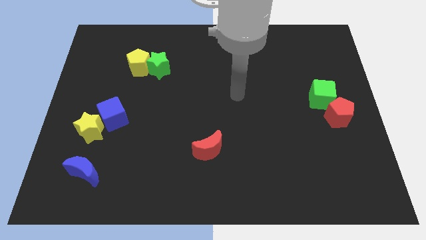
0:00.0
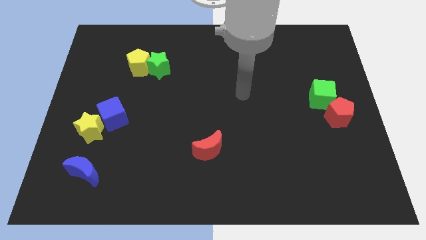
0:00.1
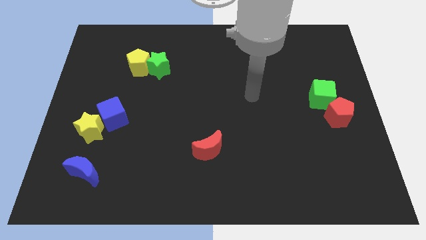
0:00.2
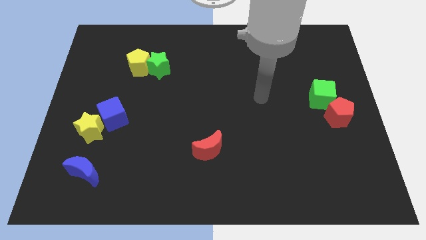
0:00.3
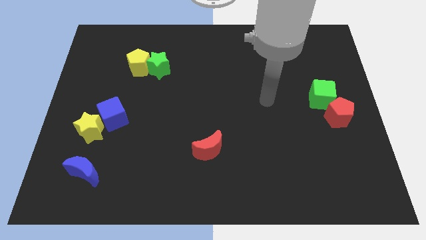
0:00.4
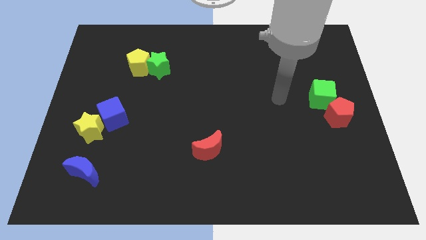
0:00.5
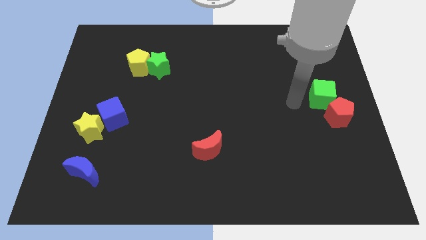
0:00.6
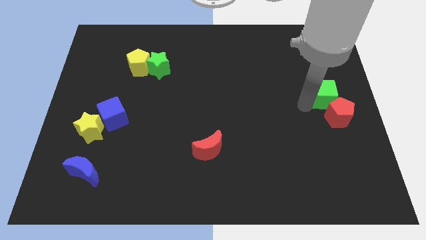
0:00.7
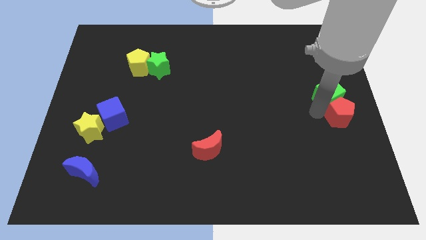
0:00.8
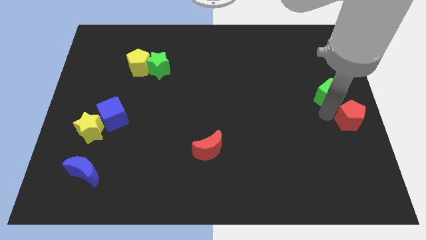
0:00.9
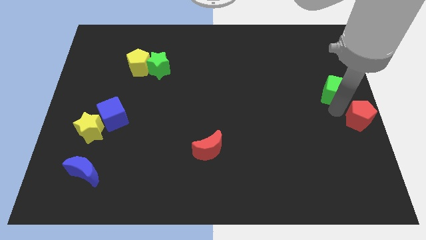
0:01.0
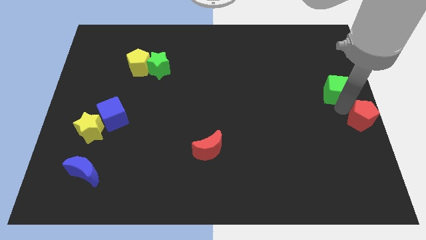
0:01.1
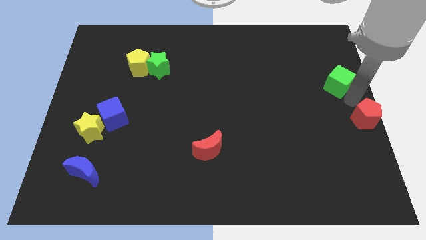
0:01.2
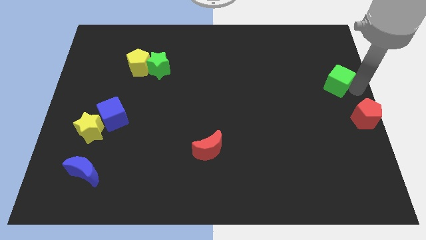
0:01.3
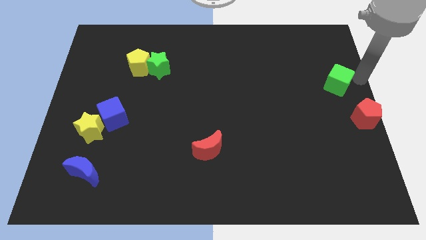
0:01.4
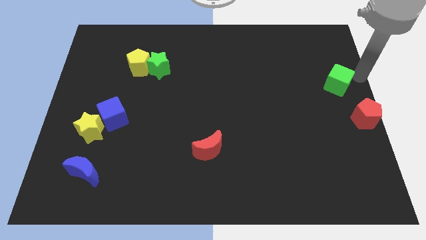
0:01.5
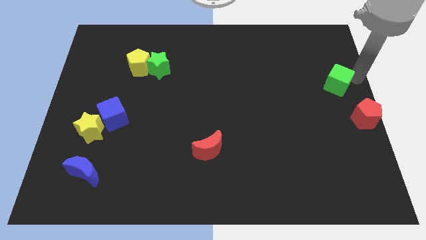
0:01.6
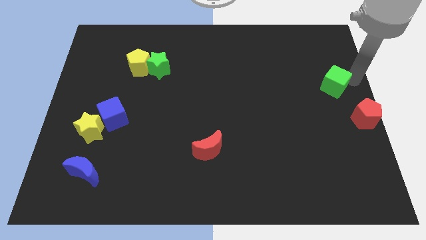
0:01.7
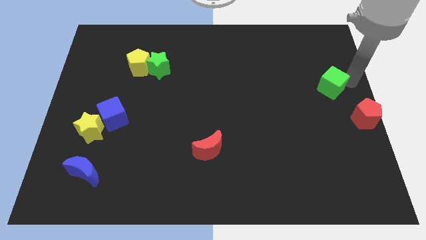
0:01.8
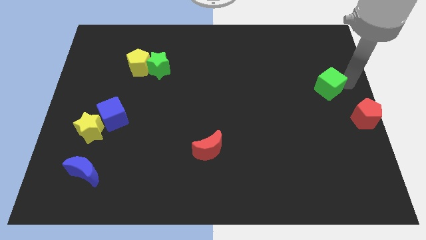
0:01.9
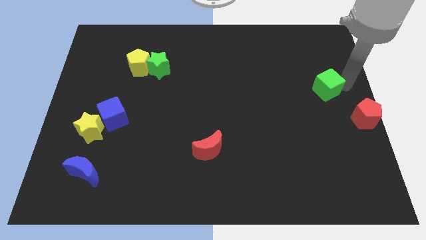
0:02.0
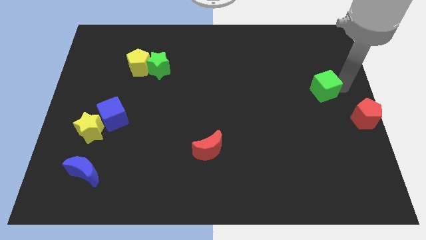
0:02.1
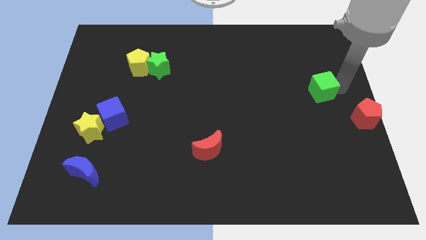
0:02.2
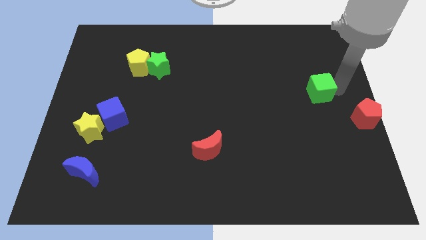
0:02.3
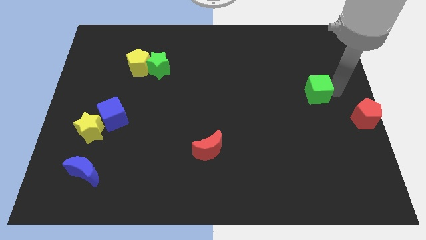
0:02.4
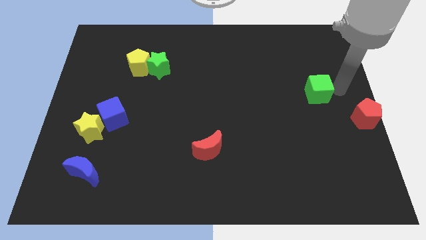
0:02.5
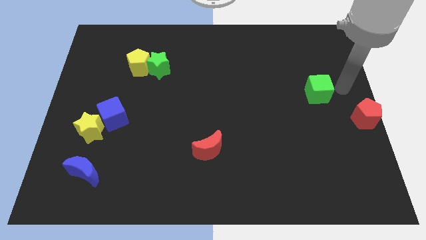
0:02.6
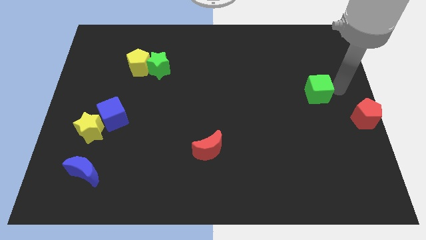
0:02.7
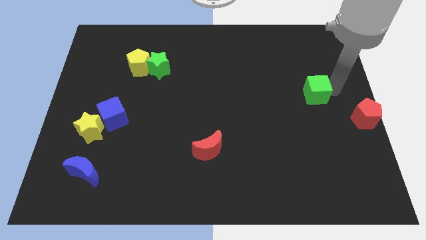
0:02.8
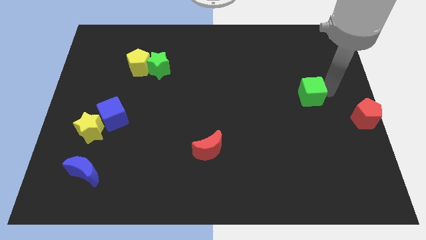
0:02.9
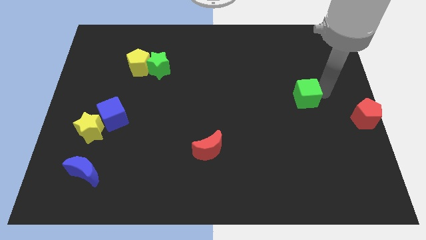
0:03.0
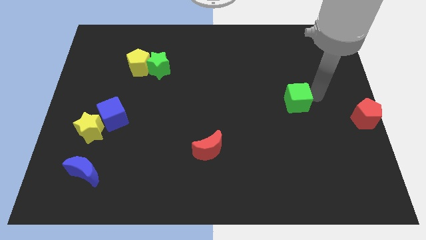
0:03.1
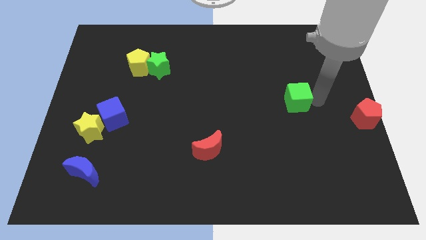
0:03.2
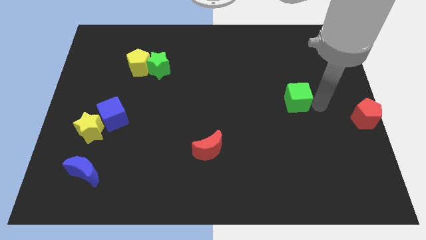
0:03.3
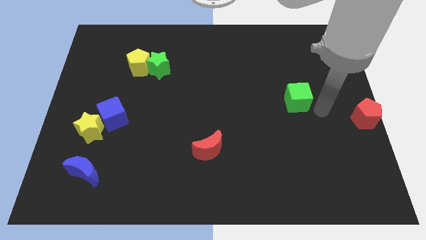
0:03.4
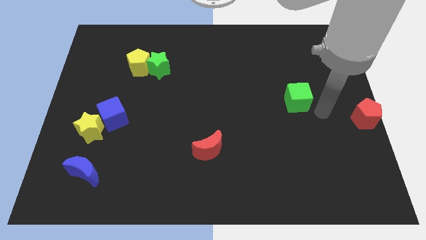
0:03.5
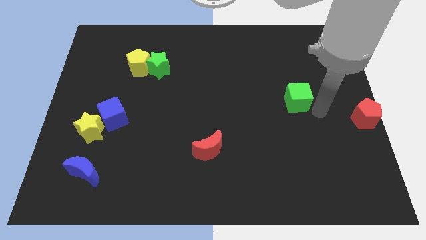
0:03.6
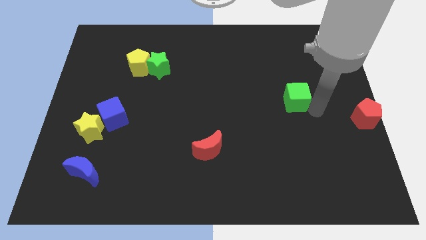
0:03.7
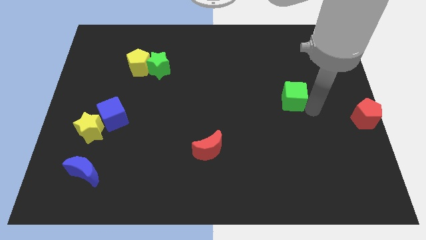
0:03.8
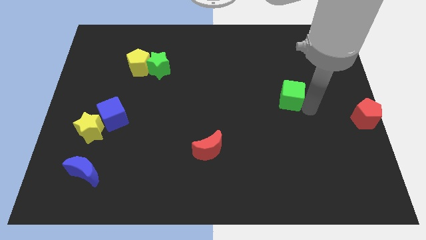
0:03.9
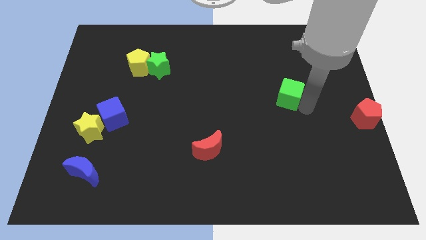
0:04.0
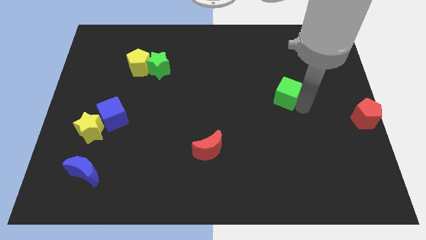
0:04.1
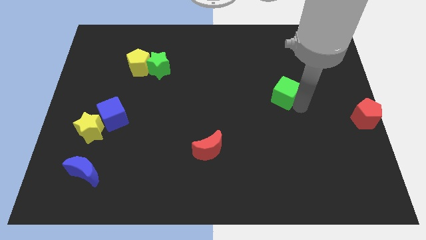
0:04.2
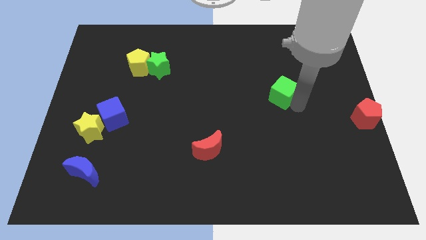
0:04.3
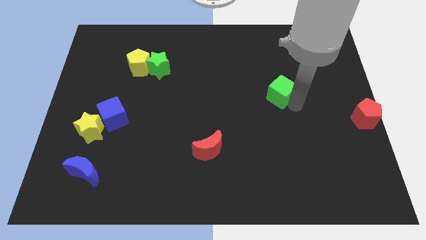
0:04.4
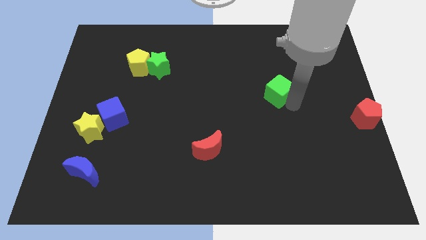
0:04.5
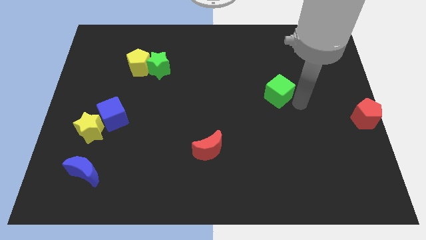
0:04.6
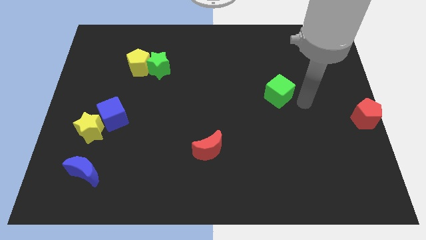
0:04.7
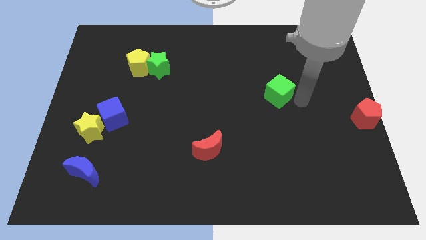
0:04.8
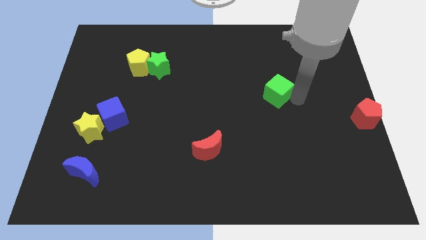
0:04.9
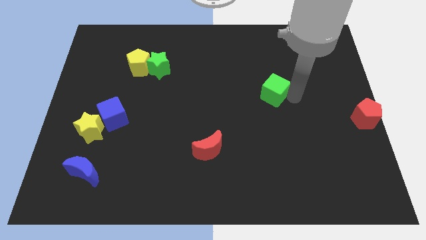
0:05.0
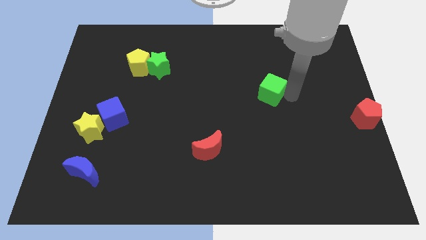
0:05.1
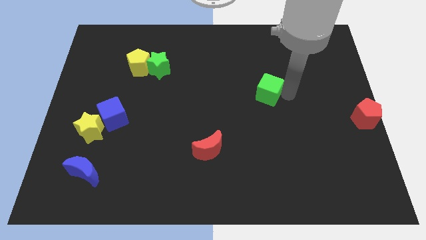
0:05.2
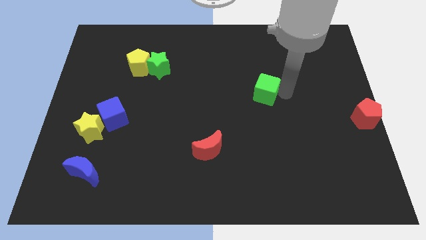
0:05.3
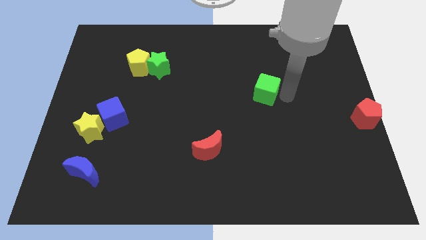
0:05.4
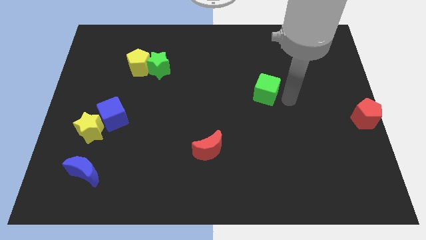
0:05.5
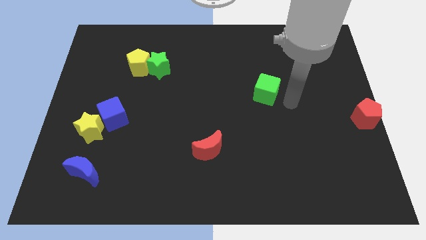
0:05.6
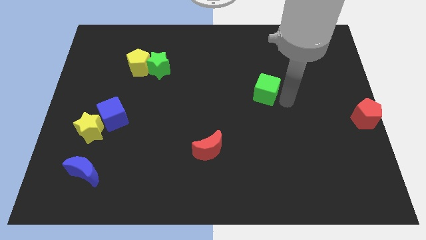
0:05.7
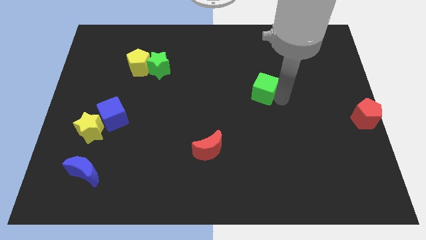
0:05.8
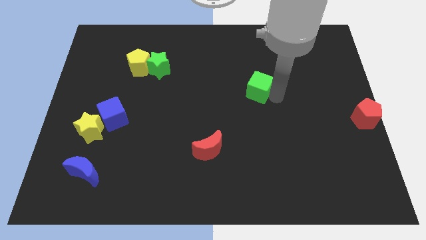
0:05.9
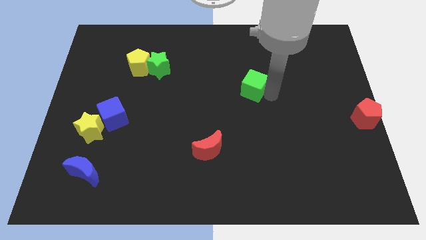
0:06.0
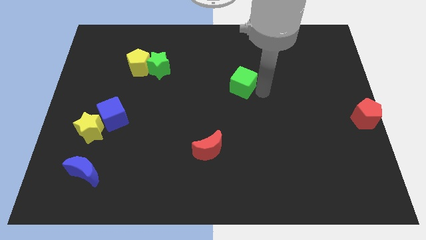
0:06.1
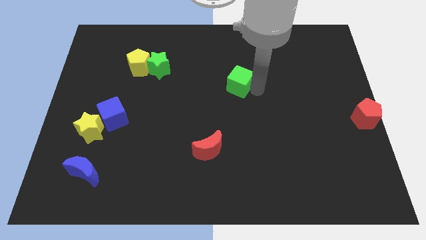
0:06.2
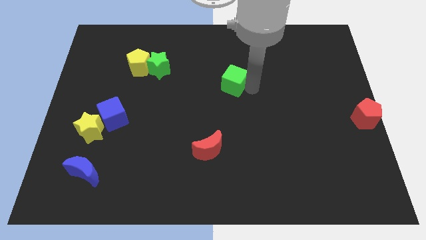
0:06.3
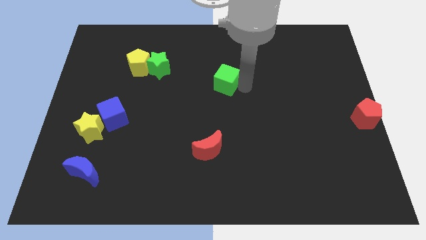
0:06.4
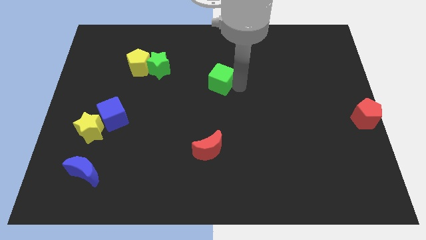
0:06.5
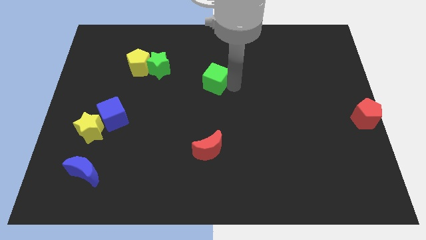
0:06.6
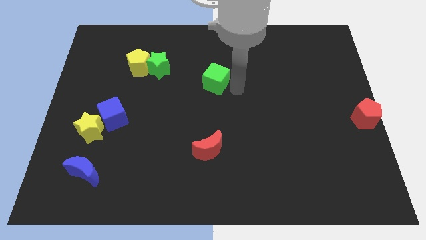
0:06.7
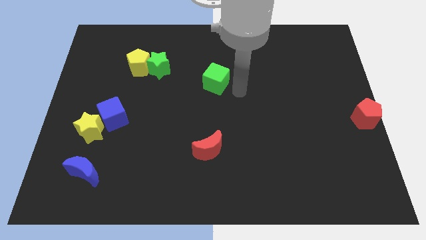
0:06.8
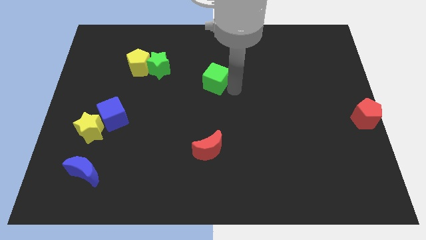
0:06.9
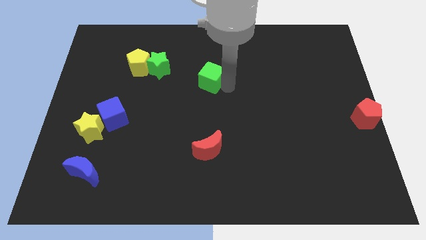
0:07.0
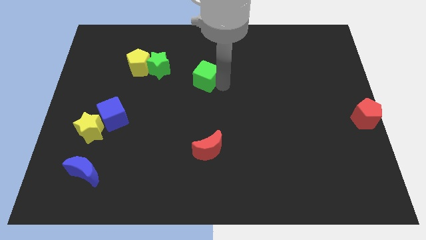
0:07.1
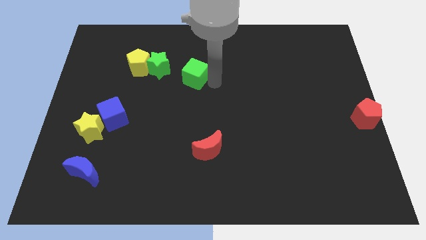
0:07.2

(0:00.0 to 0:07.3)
put the green cube right of the yellow pentagon
